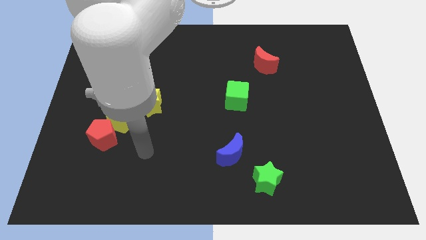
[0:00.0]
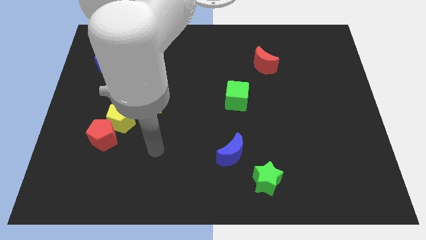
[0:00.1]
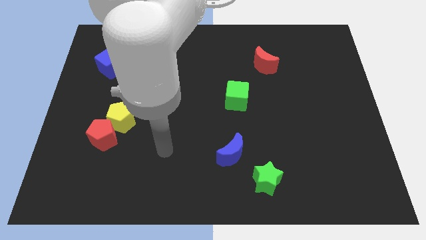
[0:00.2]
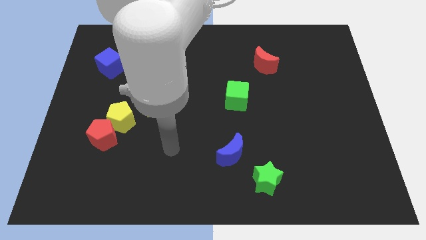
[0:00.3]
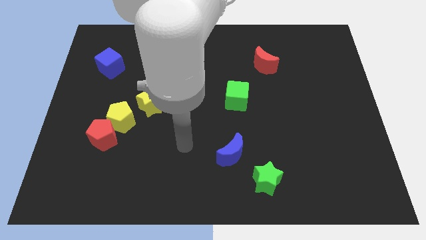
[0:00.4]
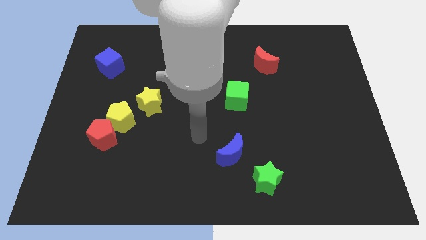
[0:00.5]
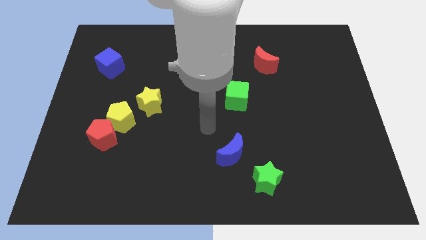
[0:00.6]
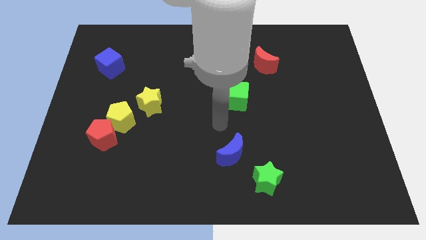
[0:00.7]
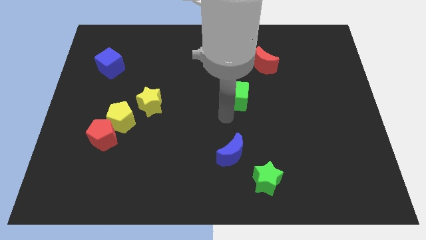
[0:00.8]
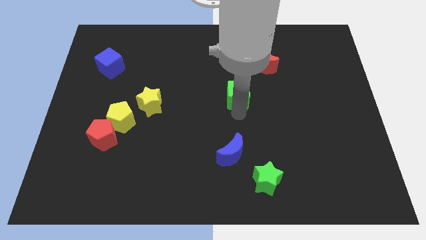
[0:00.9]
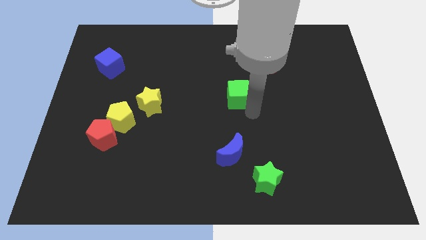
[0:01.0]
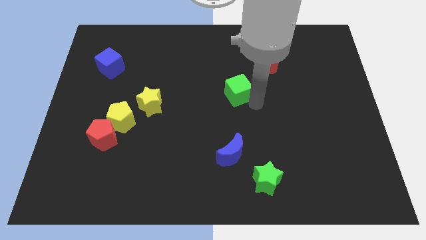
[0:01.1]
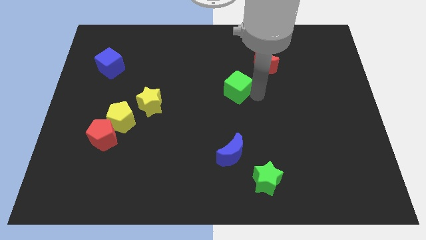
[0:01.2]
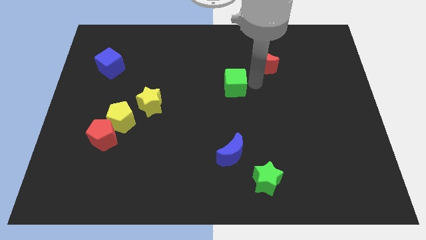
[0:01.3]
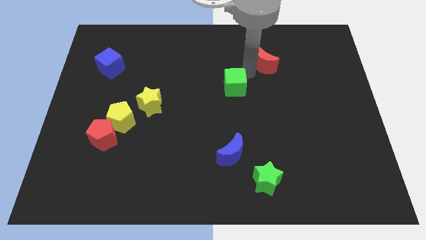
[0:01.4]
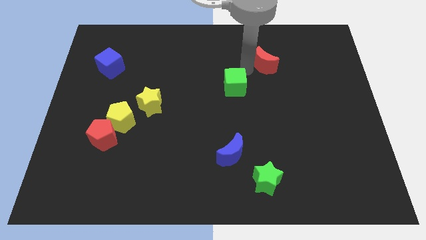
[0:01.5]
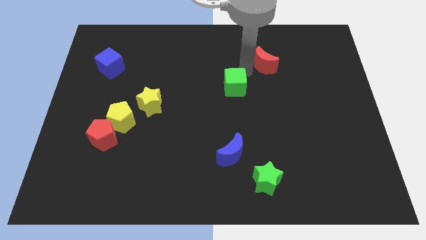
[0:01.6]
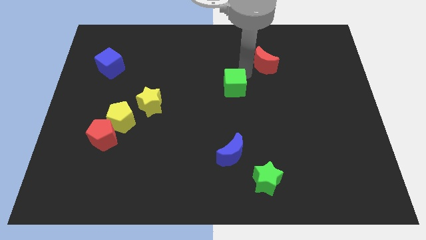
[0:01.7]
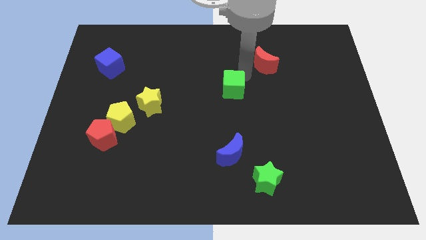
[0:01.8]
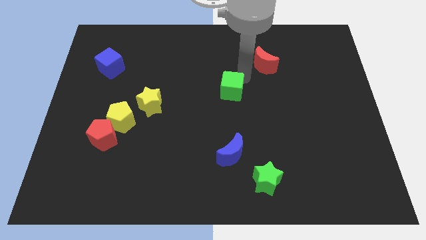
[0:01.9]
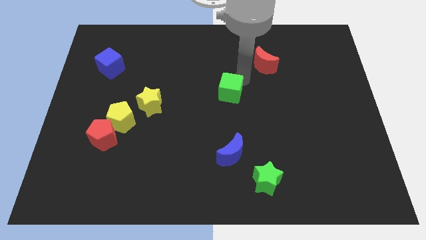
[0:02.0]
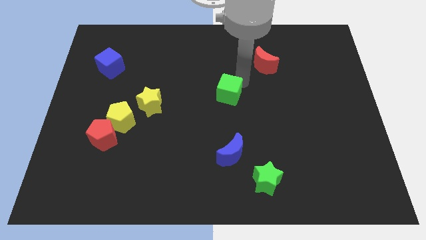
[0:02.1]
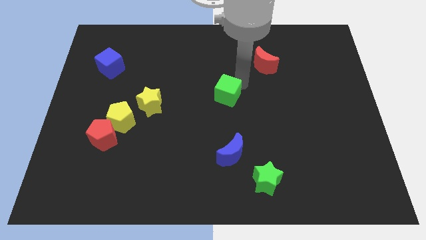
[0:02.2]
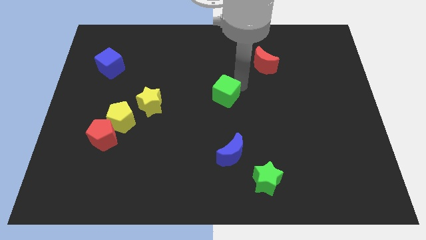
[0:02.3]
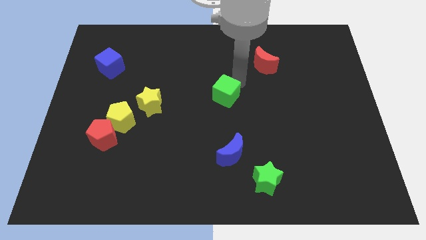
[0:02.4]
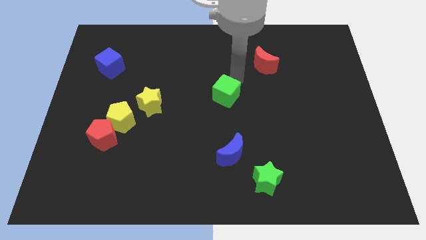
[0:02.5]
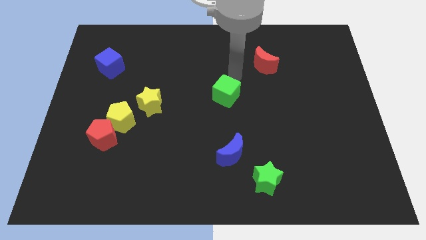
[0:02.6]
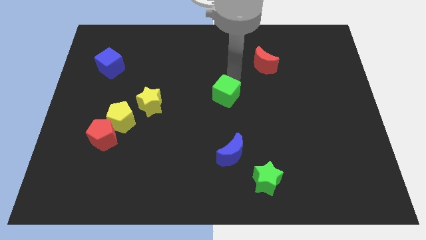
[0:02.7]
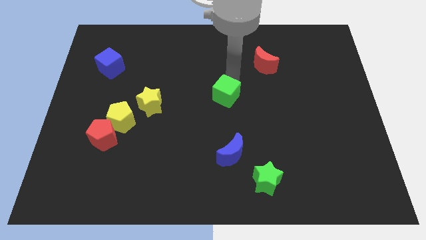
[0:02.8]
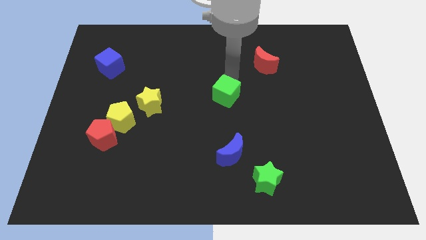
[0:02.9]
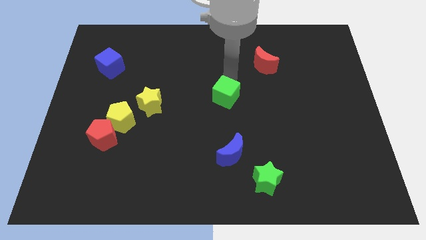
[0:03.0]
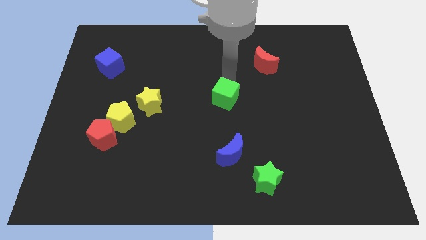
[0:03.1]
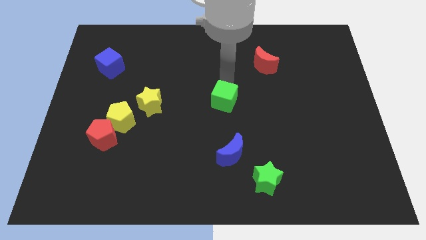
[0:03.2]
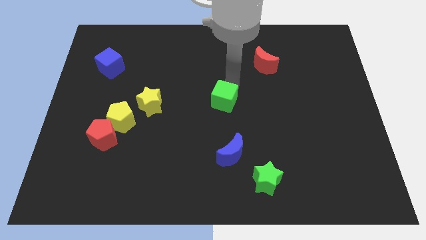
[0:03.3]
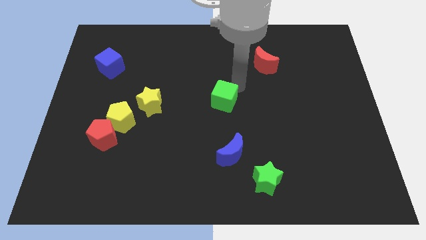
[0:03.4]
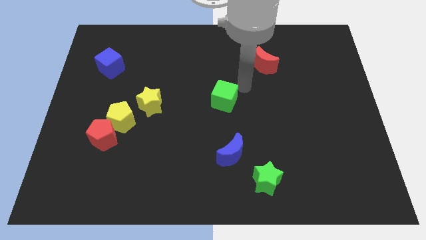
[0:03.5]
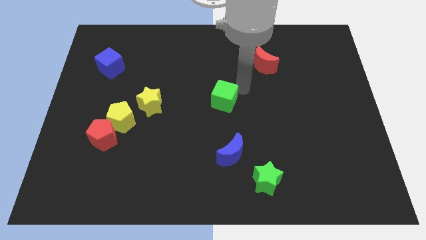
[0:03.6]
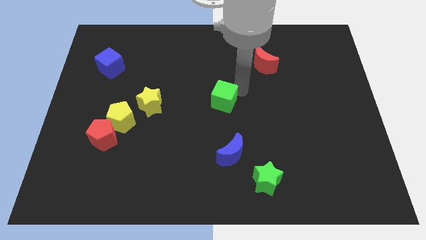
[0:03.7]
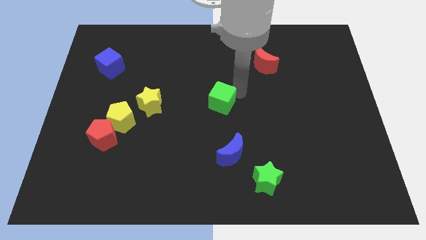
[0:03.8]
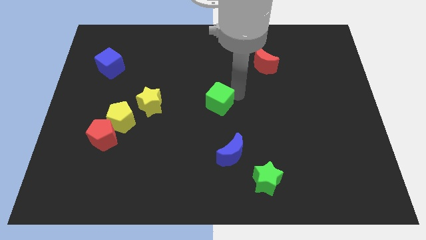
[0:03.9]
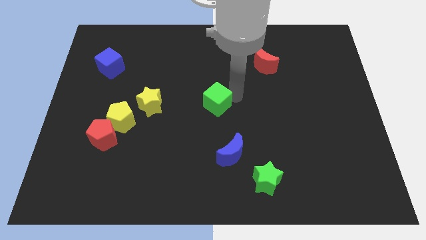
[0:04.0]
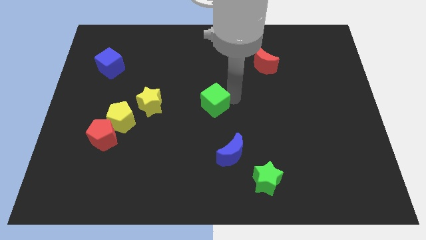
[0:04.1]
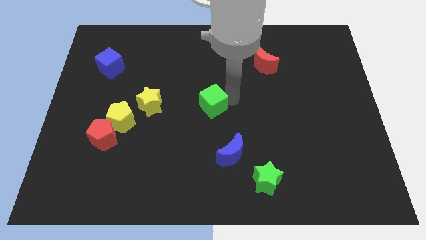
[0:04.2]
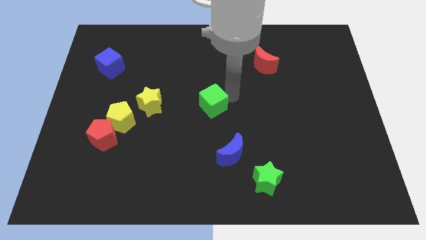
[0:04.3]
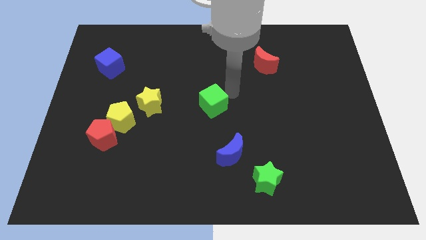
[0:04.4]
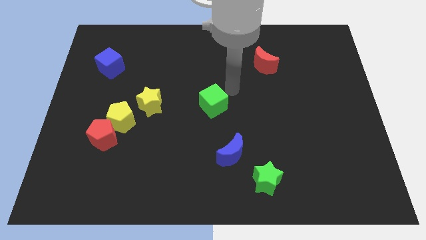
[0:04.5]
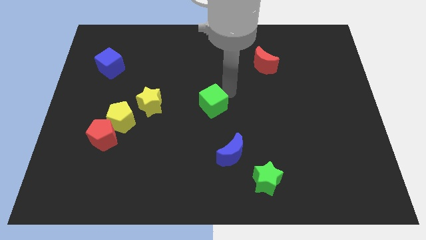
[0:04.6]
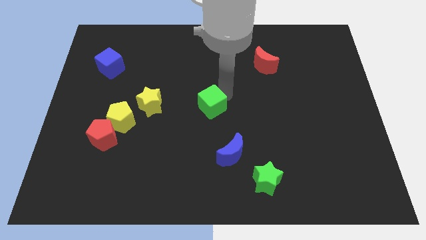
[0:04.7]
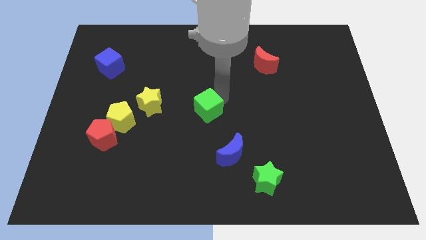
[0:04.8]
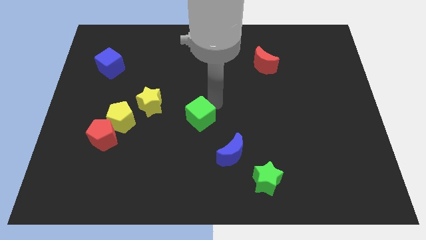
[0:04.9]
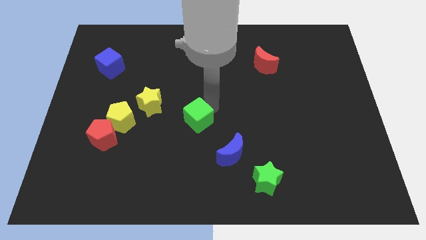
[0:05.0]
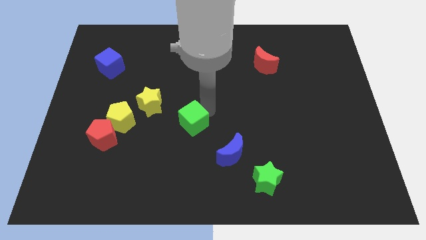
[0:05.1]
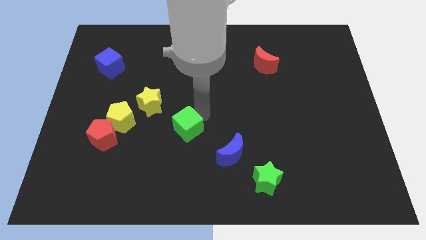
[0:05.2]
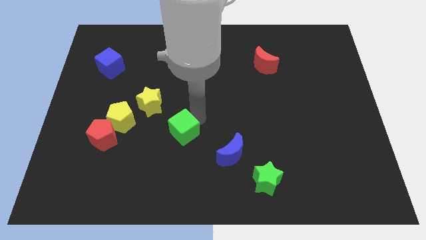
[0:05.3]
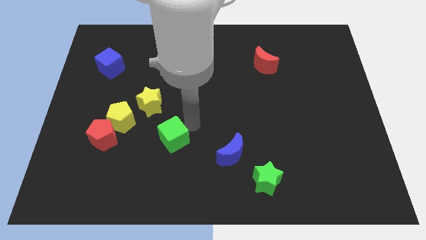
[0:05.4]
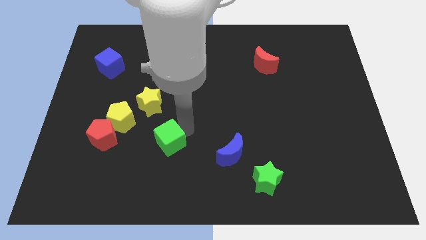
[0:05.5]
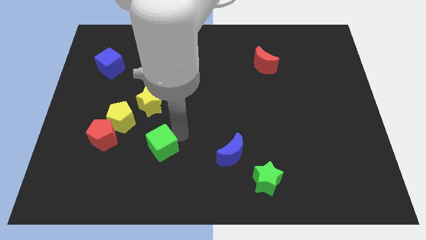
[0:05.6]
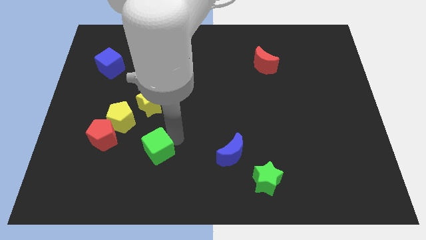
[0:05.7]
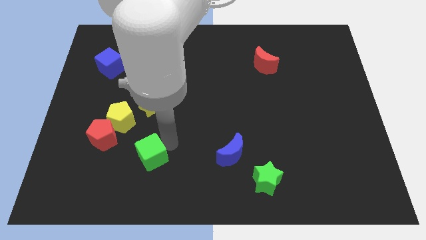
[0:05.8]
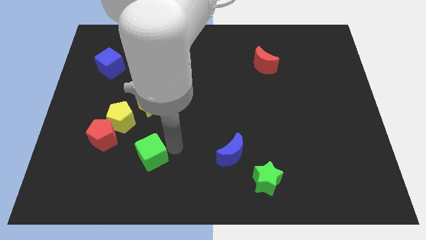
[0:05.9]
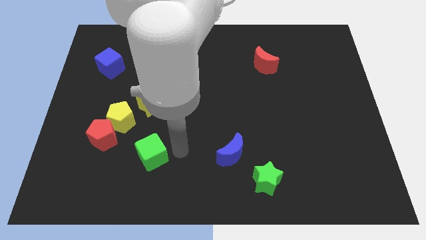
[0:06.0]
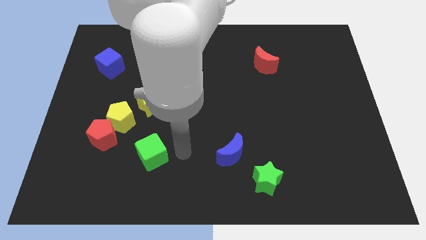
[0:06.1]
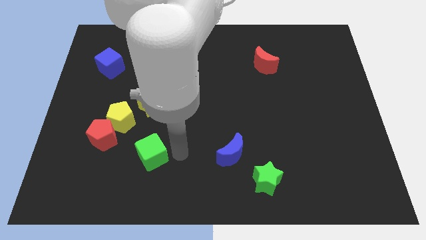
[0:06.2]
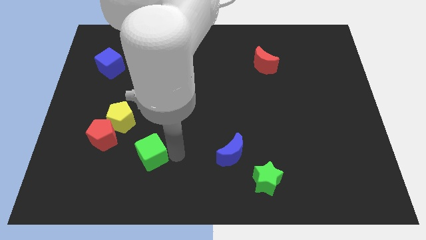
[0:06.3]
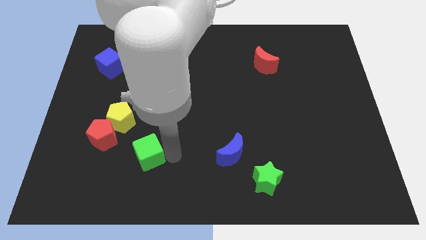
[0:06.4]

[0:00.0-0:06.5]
move the green cube to the bottom right side of the red pentagon
